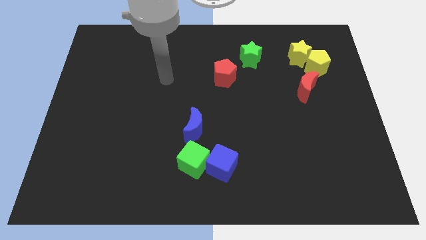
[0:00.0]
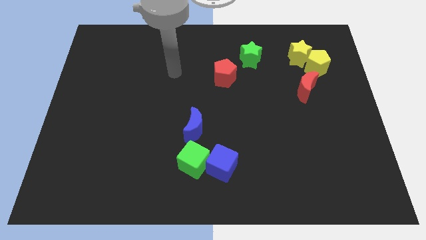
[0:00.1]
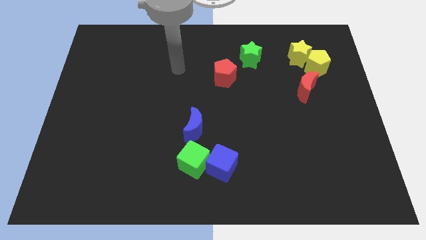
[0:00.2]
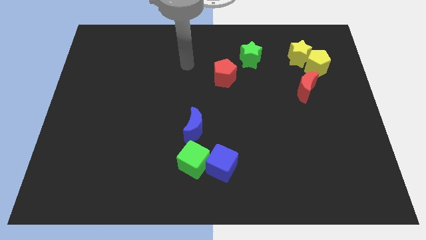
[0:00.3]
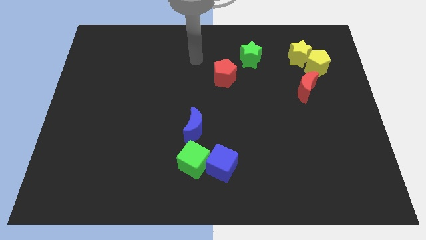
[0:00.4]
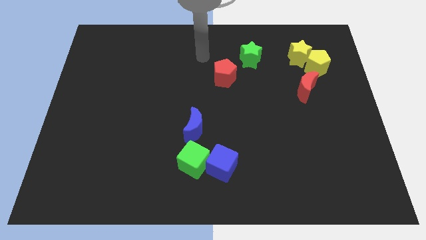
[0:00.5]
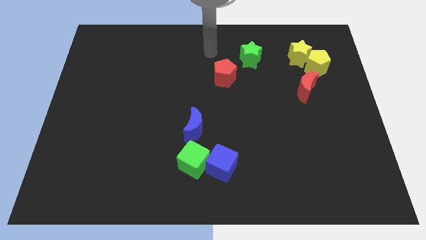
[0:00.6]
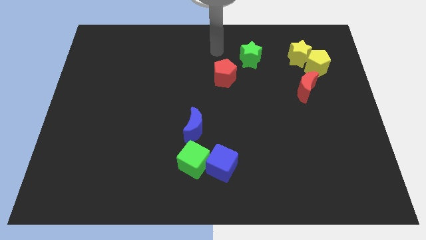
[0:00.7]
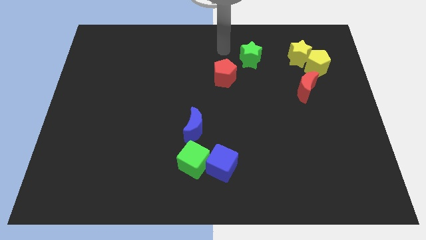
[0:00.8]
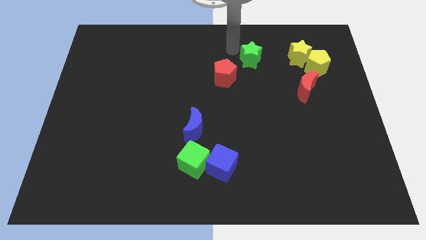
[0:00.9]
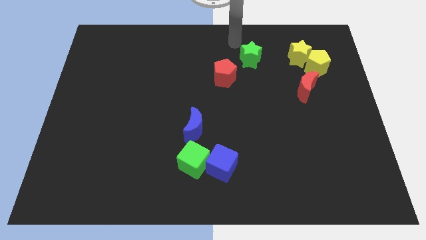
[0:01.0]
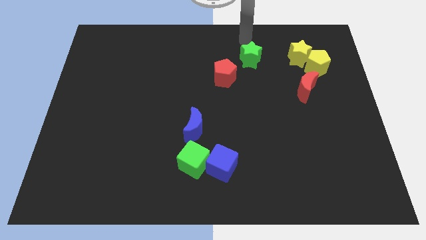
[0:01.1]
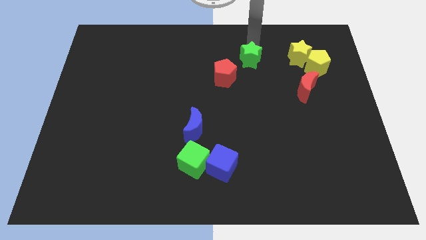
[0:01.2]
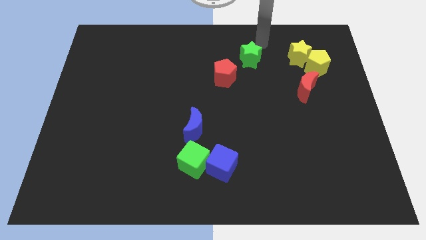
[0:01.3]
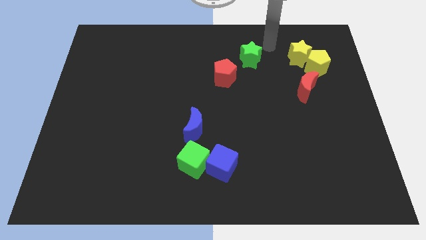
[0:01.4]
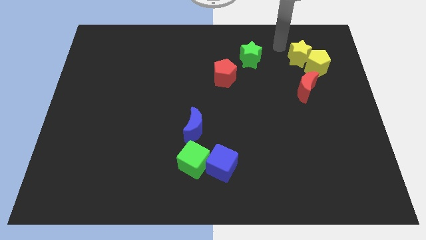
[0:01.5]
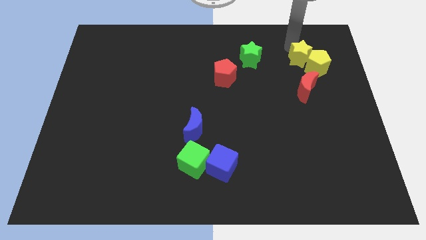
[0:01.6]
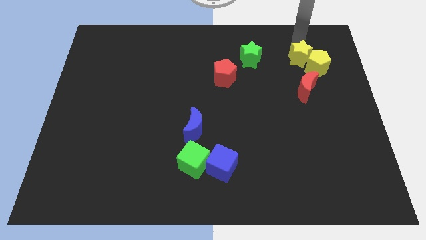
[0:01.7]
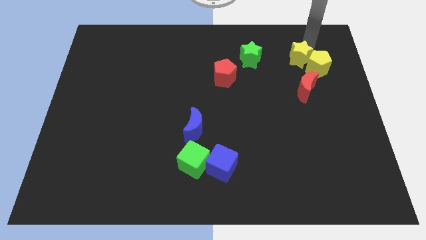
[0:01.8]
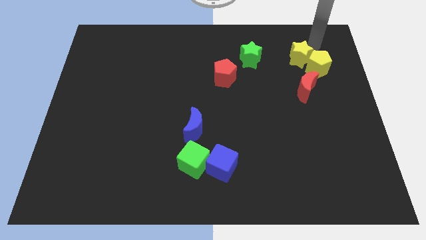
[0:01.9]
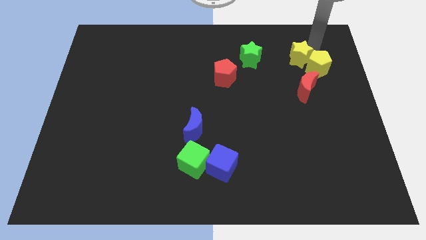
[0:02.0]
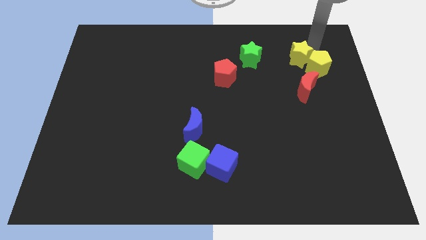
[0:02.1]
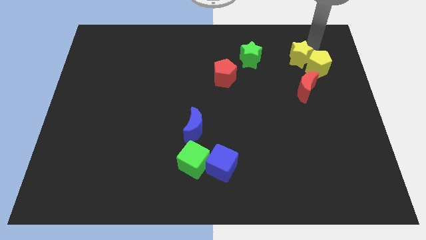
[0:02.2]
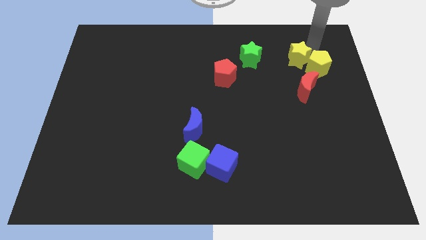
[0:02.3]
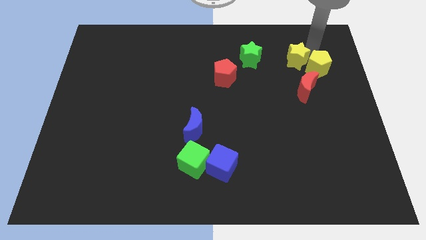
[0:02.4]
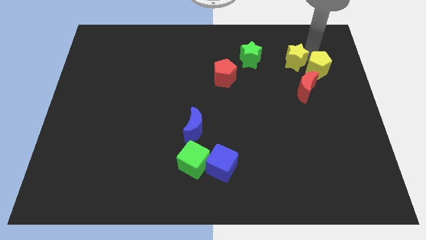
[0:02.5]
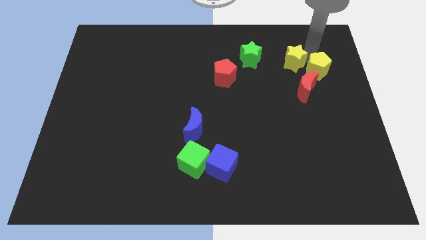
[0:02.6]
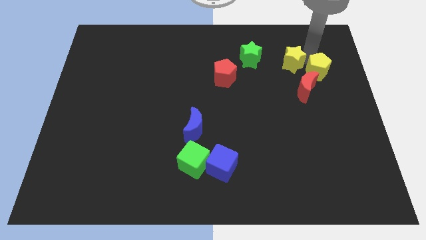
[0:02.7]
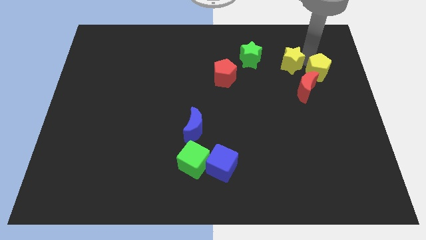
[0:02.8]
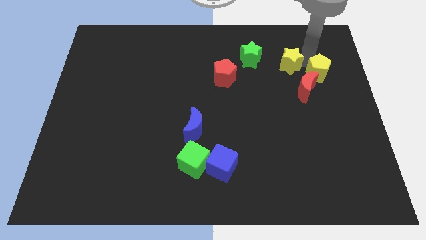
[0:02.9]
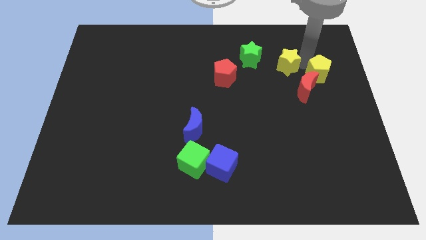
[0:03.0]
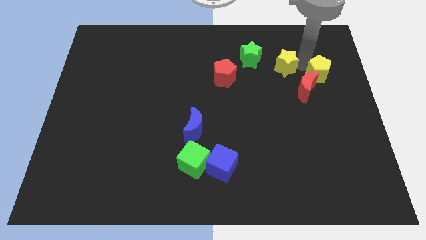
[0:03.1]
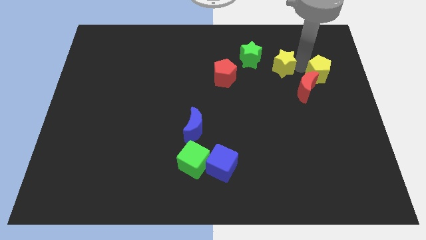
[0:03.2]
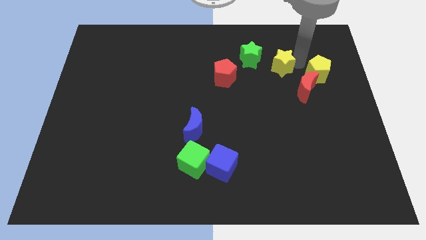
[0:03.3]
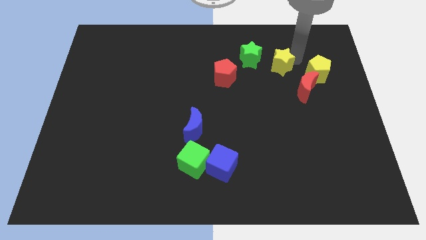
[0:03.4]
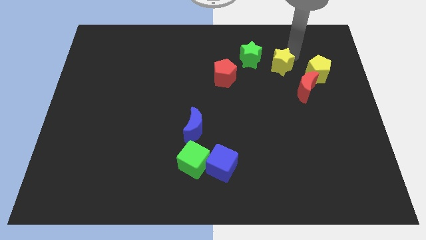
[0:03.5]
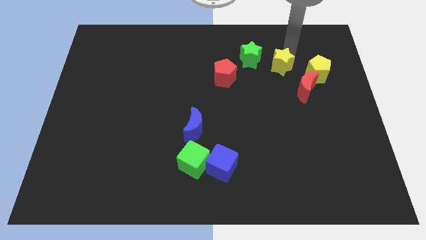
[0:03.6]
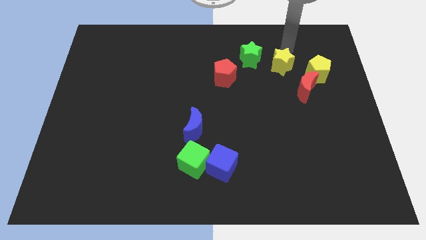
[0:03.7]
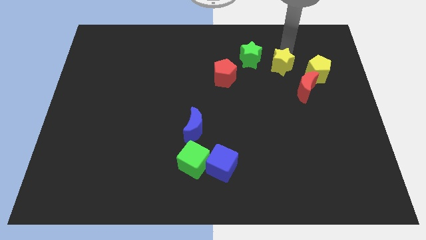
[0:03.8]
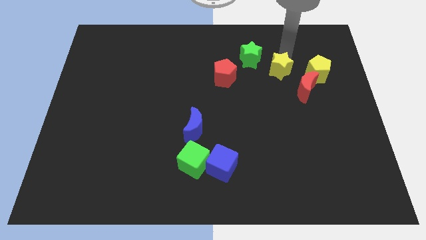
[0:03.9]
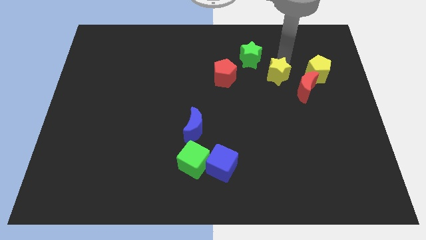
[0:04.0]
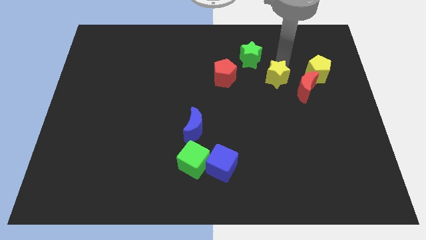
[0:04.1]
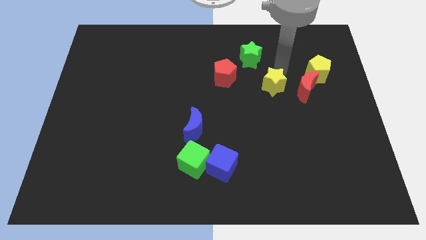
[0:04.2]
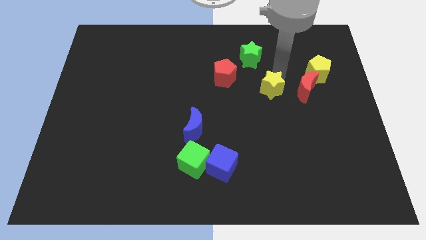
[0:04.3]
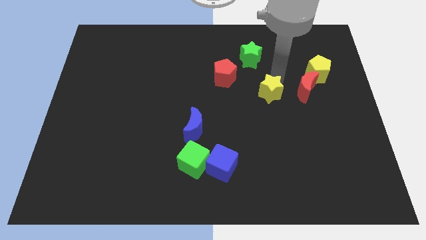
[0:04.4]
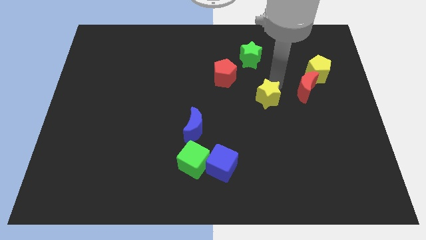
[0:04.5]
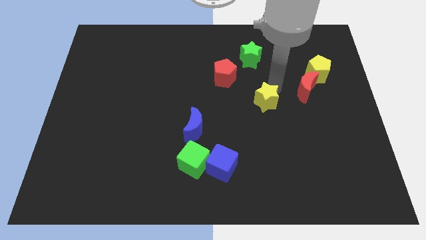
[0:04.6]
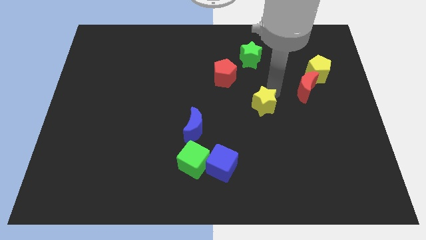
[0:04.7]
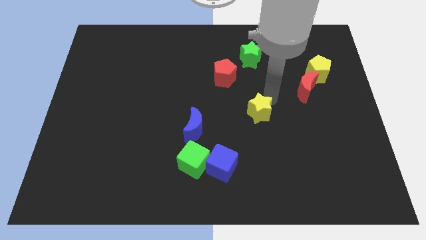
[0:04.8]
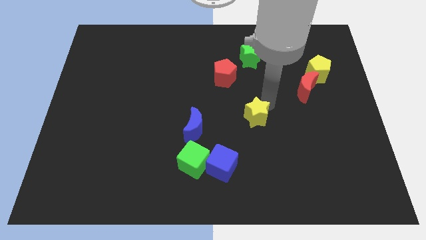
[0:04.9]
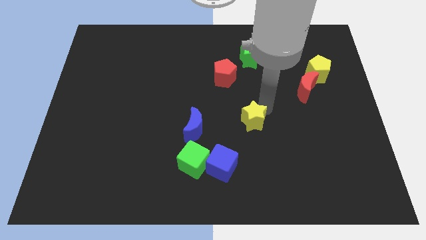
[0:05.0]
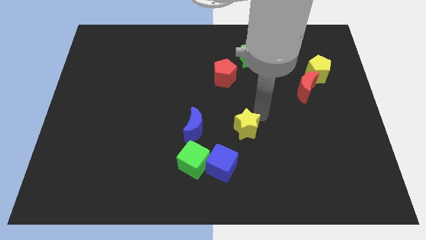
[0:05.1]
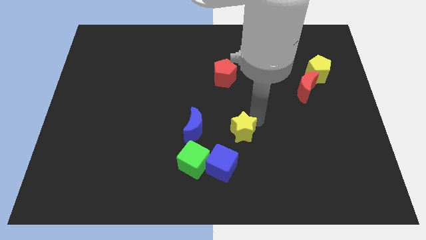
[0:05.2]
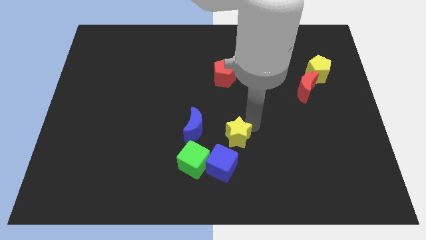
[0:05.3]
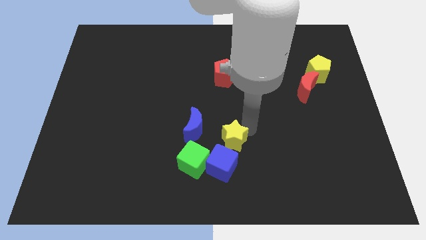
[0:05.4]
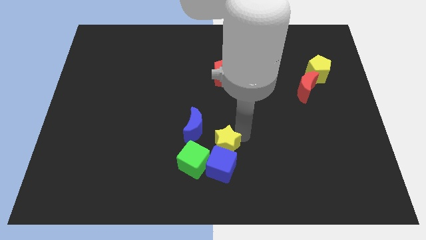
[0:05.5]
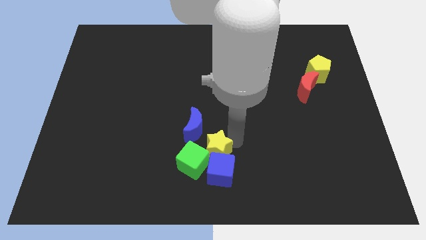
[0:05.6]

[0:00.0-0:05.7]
put the yellow star next to the green cube

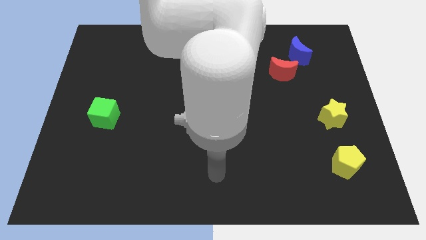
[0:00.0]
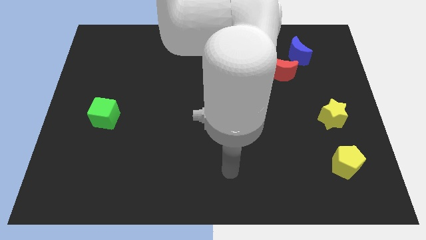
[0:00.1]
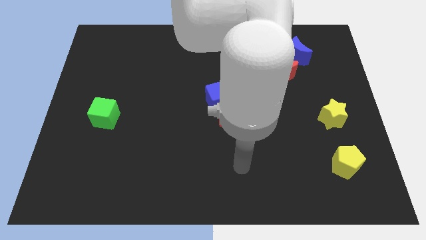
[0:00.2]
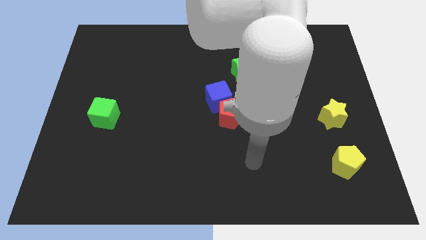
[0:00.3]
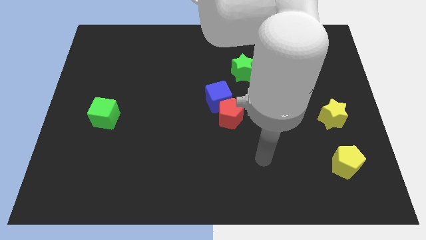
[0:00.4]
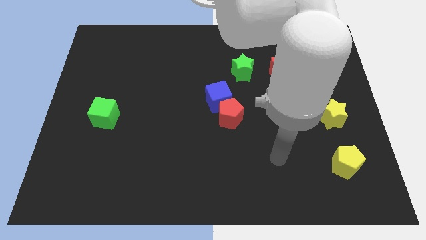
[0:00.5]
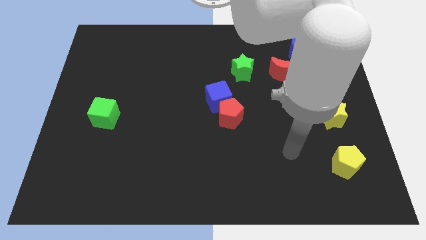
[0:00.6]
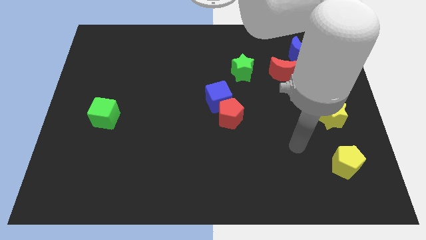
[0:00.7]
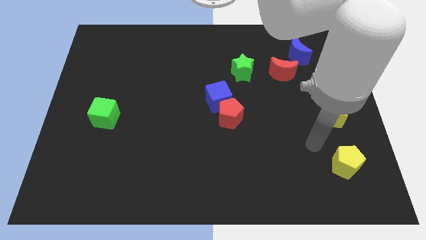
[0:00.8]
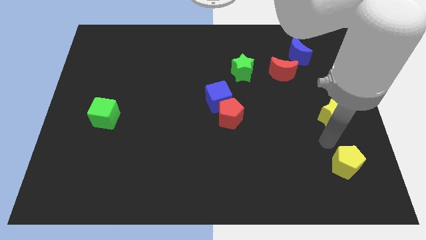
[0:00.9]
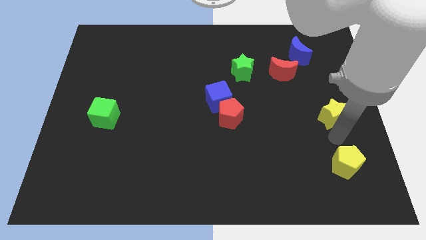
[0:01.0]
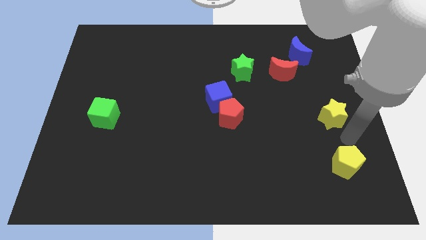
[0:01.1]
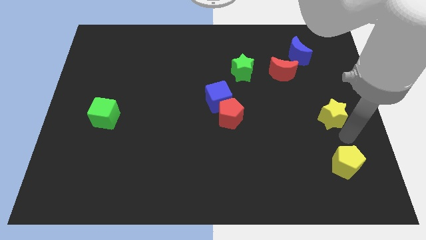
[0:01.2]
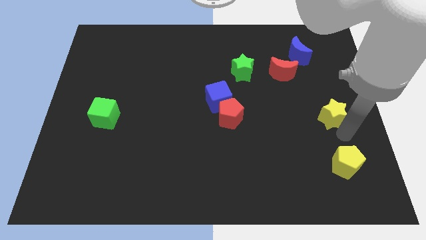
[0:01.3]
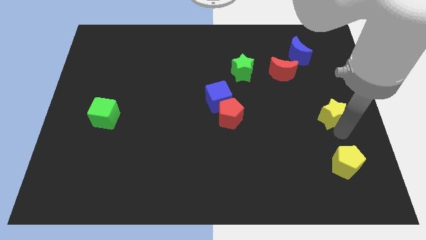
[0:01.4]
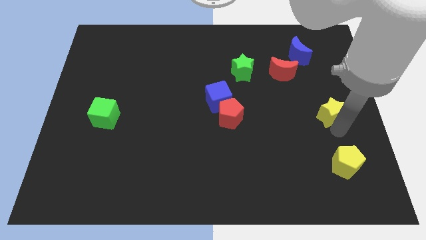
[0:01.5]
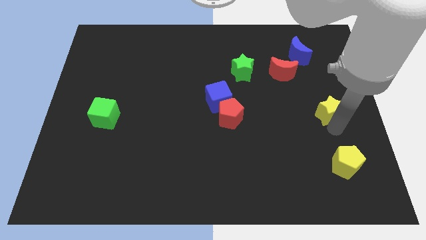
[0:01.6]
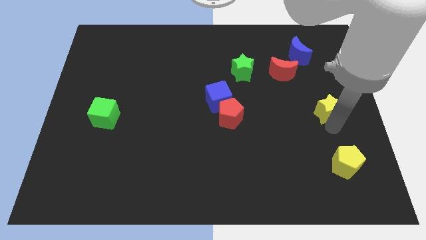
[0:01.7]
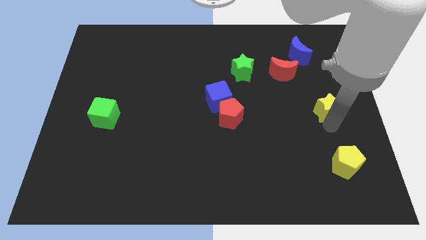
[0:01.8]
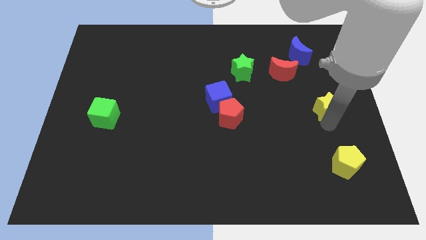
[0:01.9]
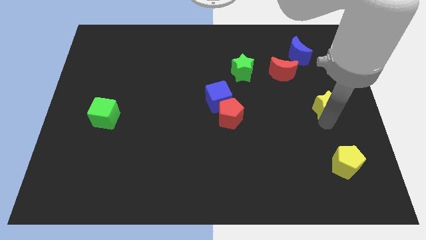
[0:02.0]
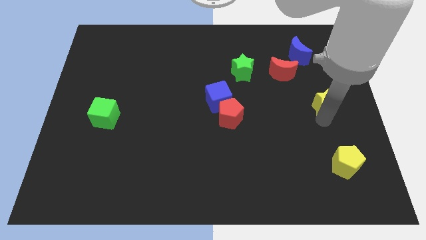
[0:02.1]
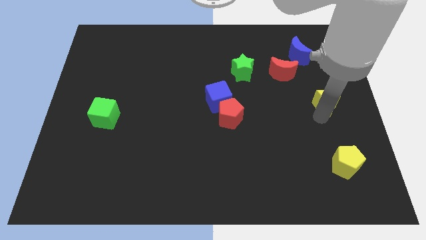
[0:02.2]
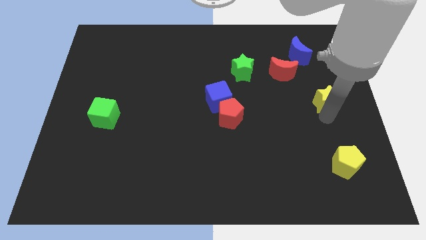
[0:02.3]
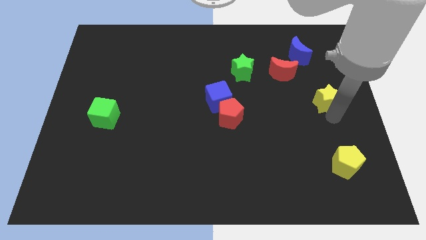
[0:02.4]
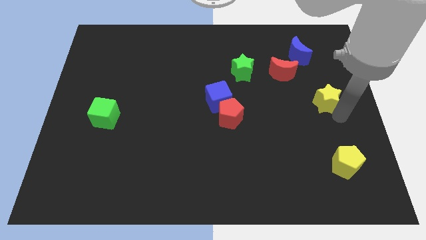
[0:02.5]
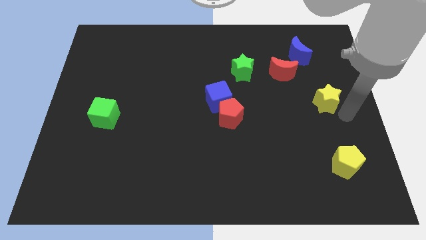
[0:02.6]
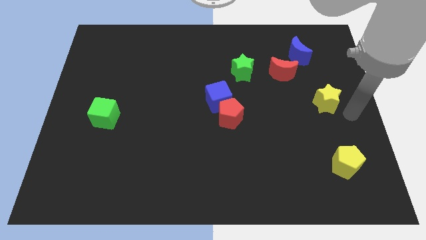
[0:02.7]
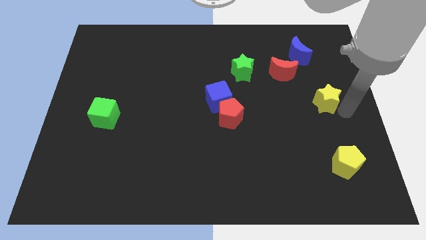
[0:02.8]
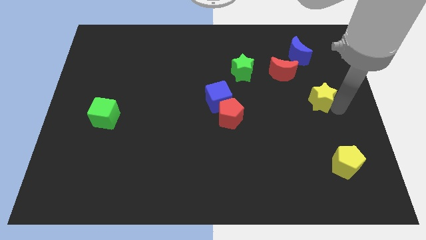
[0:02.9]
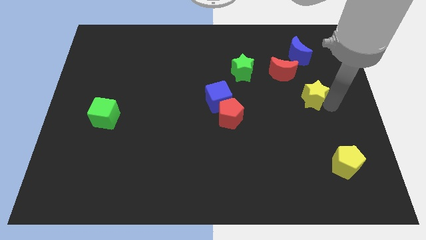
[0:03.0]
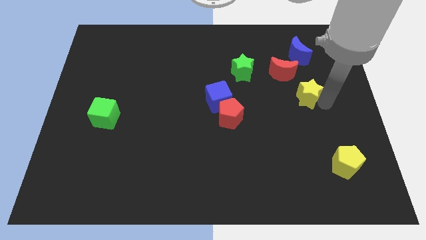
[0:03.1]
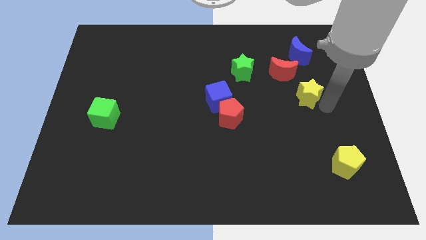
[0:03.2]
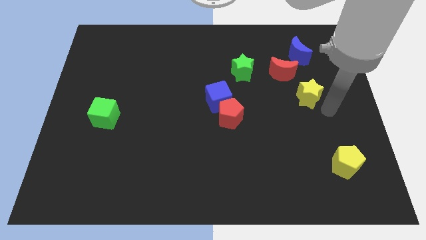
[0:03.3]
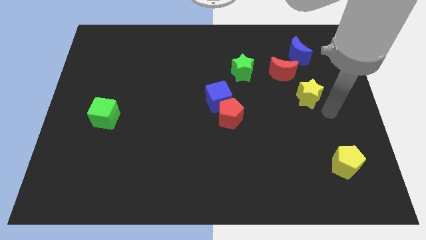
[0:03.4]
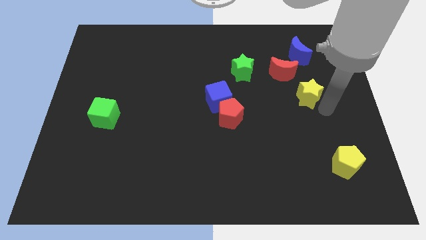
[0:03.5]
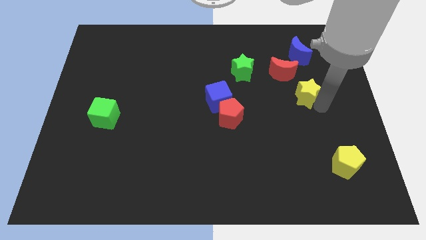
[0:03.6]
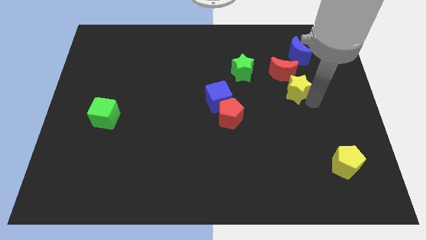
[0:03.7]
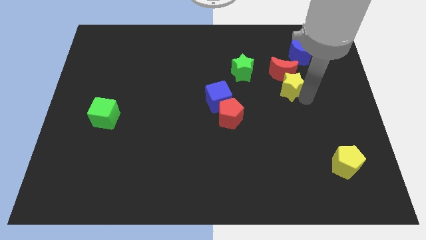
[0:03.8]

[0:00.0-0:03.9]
put the yellow star to the red moon
